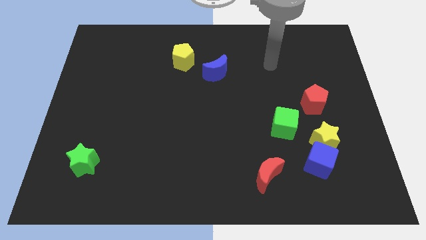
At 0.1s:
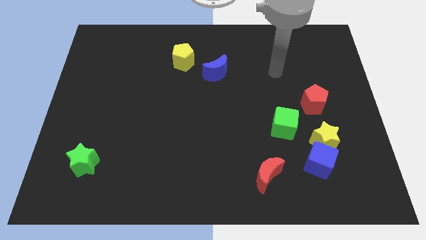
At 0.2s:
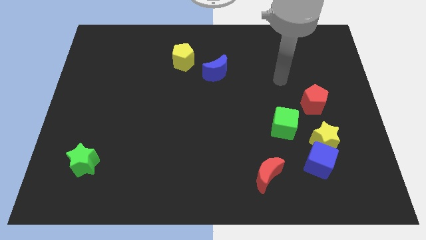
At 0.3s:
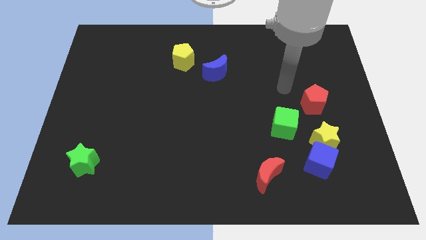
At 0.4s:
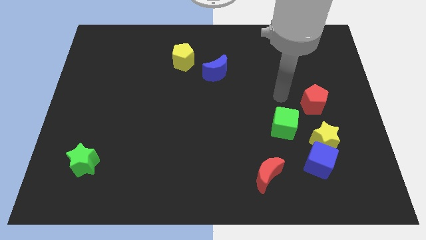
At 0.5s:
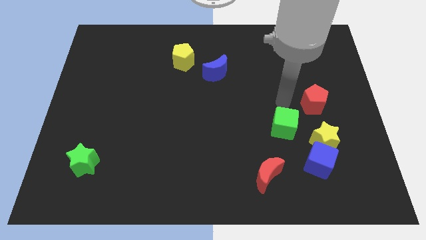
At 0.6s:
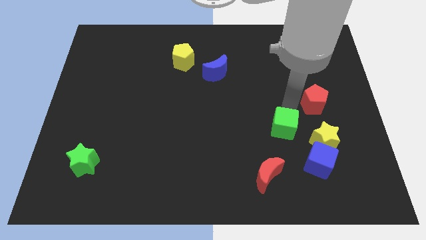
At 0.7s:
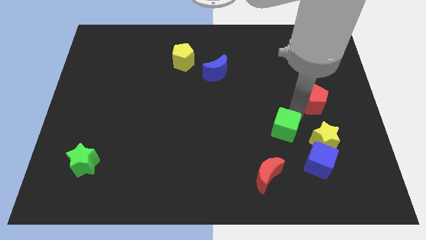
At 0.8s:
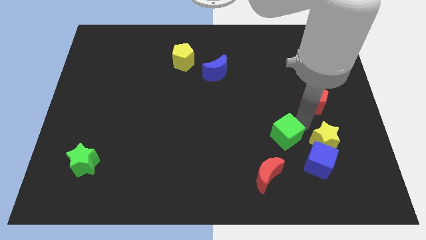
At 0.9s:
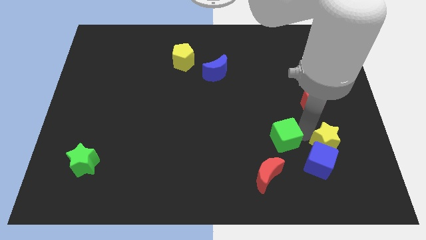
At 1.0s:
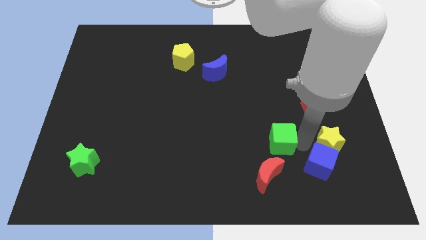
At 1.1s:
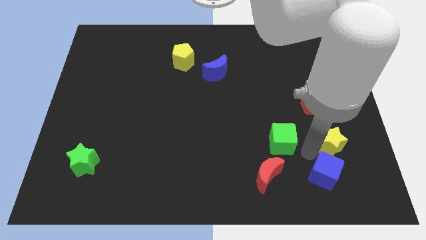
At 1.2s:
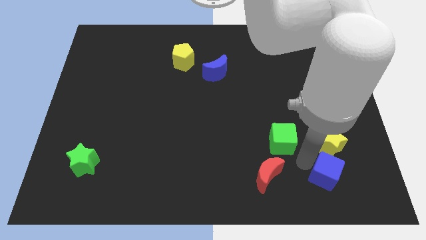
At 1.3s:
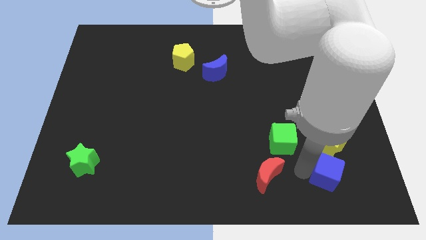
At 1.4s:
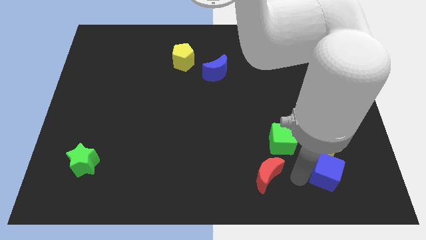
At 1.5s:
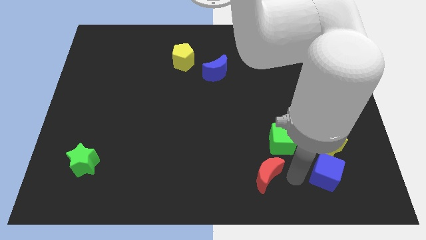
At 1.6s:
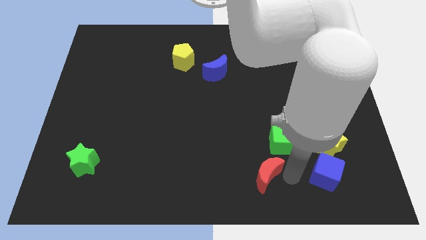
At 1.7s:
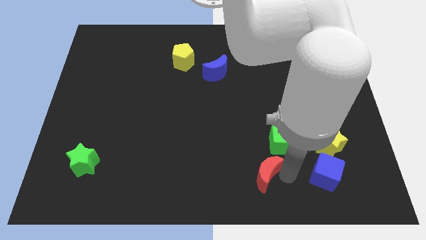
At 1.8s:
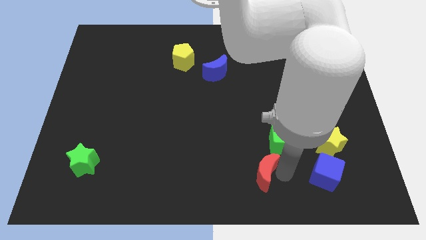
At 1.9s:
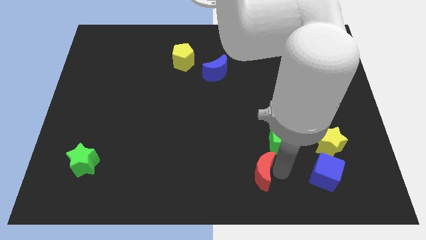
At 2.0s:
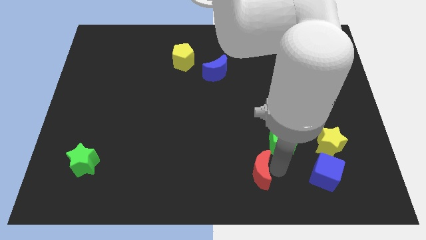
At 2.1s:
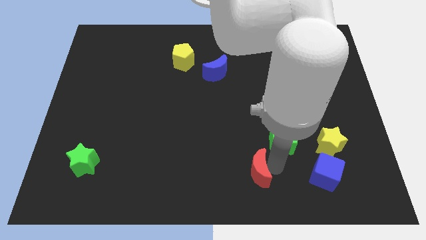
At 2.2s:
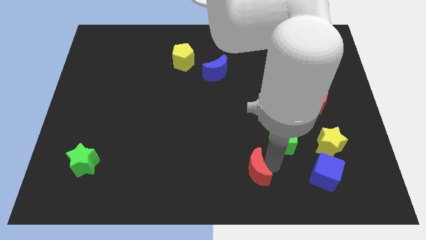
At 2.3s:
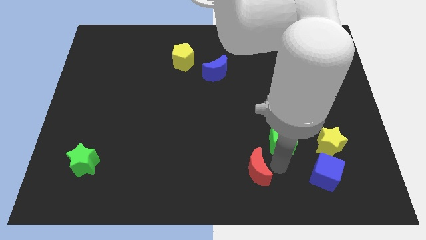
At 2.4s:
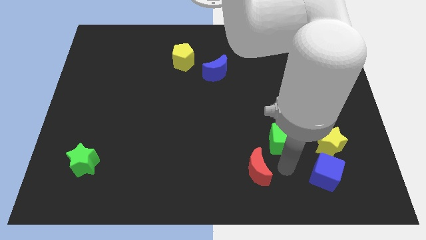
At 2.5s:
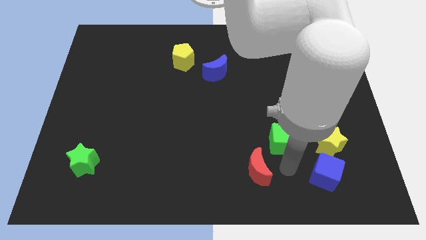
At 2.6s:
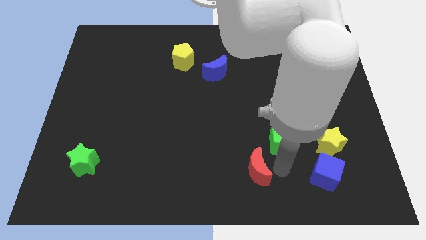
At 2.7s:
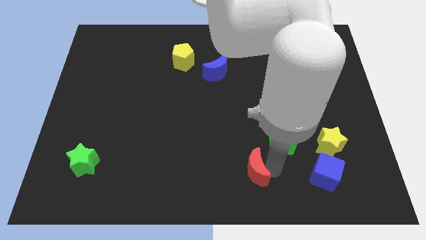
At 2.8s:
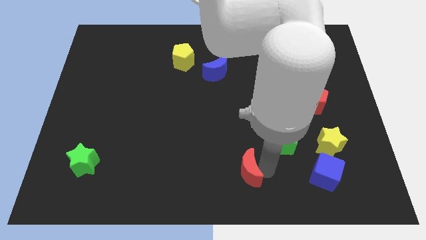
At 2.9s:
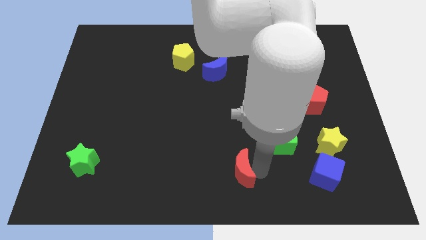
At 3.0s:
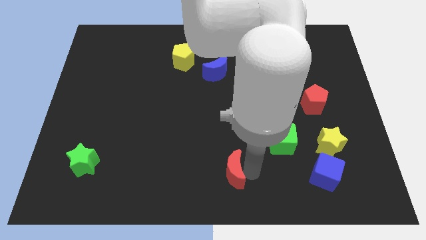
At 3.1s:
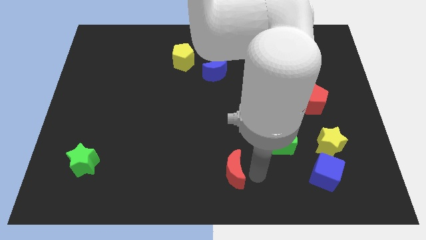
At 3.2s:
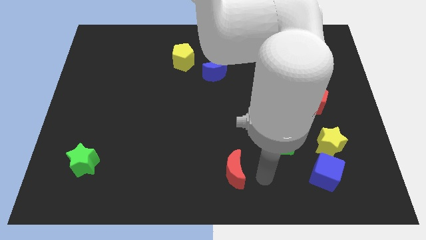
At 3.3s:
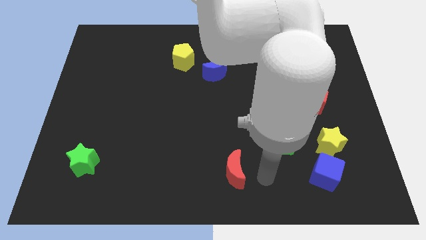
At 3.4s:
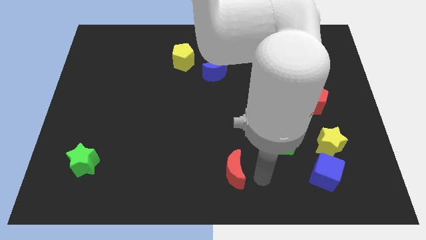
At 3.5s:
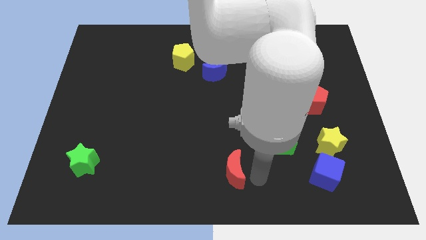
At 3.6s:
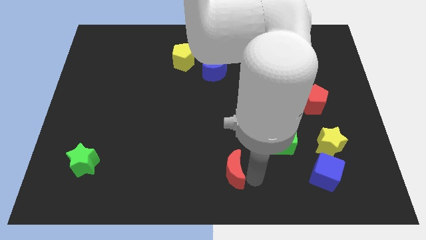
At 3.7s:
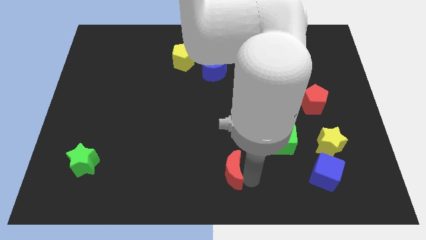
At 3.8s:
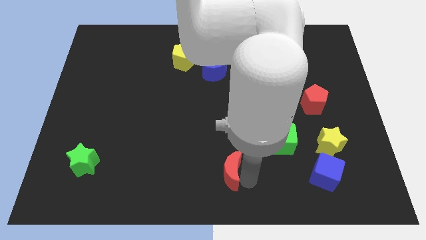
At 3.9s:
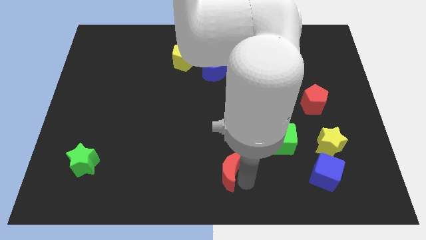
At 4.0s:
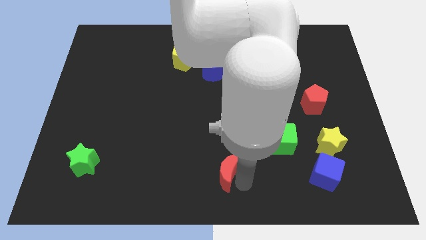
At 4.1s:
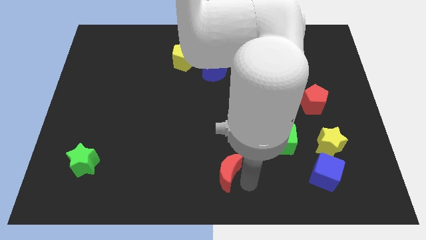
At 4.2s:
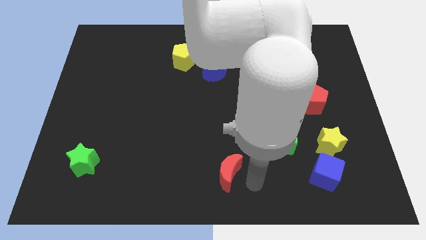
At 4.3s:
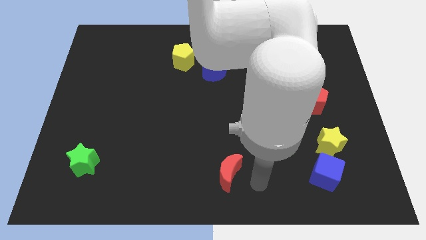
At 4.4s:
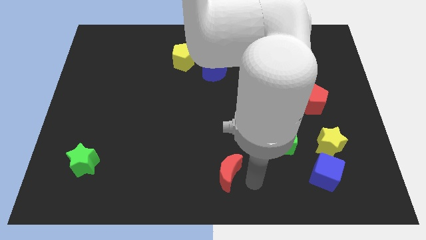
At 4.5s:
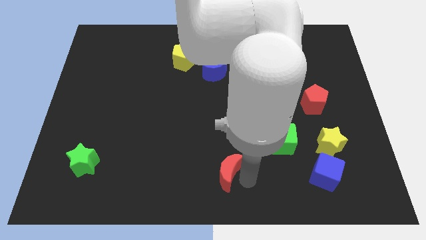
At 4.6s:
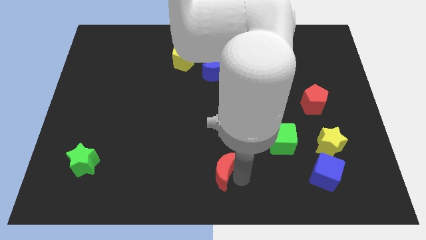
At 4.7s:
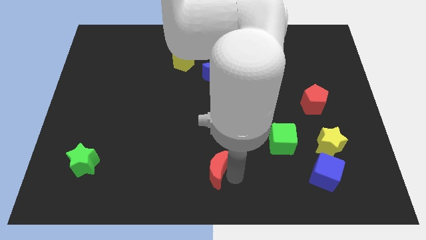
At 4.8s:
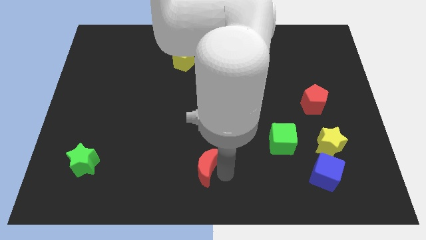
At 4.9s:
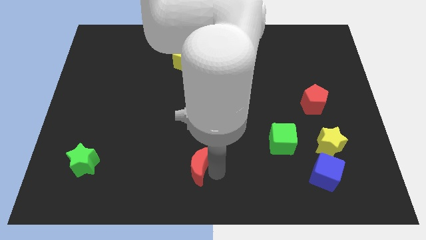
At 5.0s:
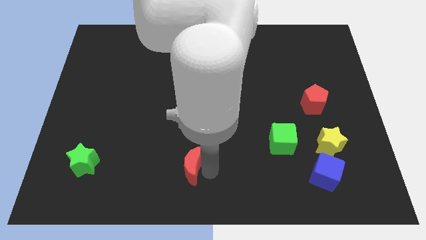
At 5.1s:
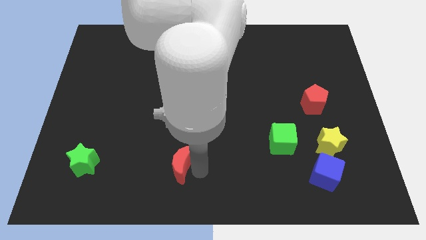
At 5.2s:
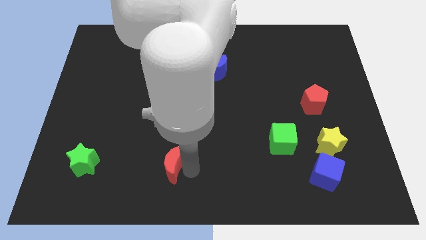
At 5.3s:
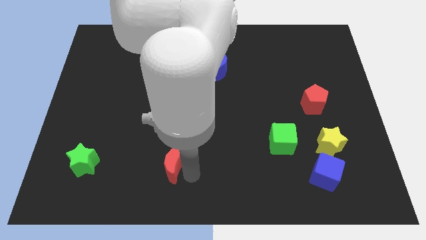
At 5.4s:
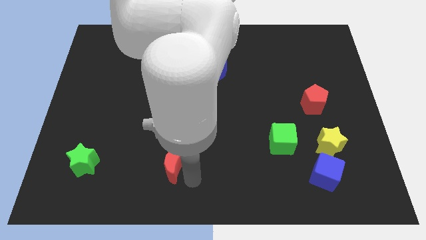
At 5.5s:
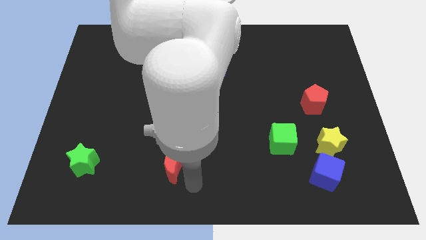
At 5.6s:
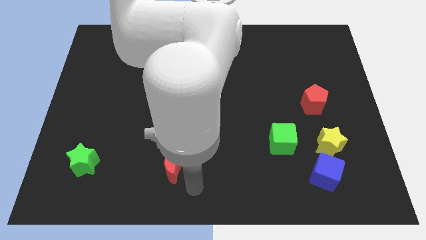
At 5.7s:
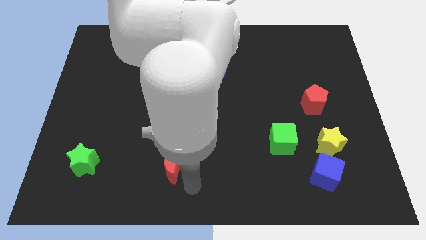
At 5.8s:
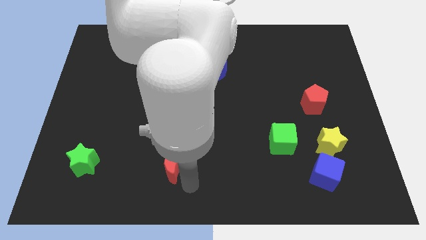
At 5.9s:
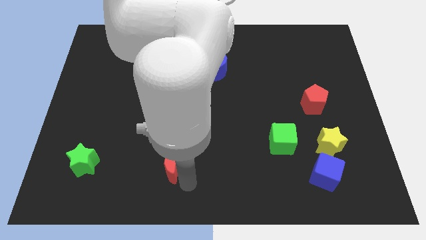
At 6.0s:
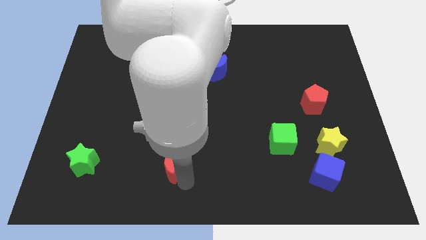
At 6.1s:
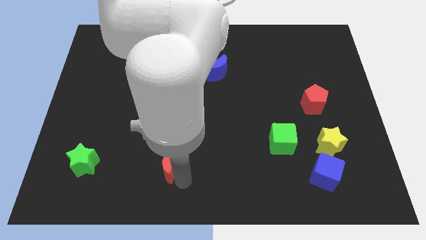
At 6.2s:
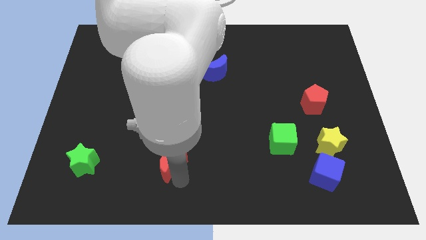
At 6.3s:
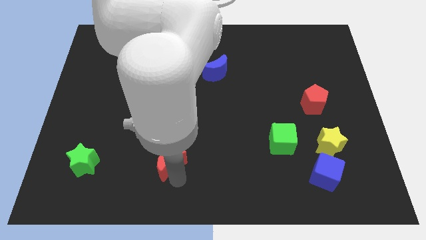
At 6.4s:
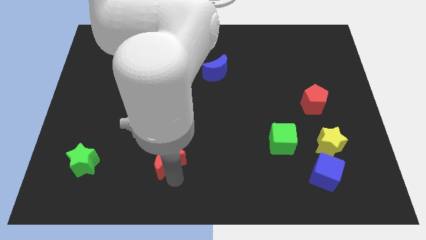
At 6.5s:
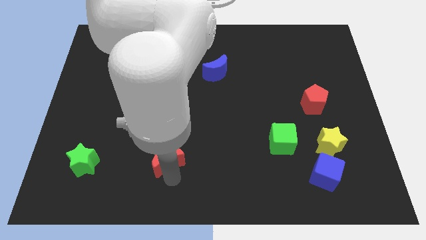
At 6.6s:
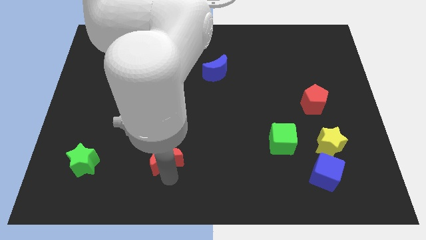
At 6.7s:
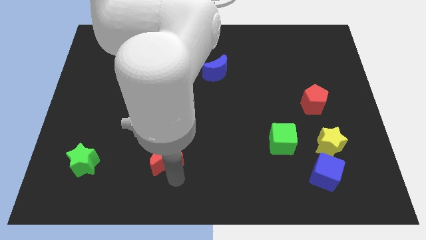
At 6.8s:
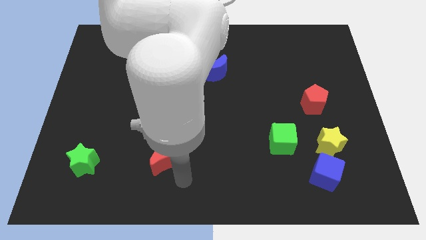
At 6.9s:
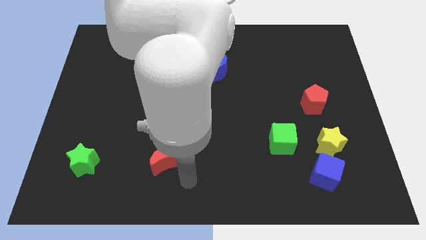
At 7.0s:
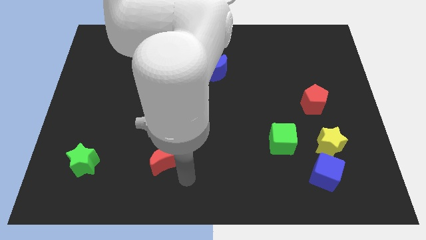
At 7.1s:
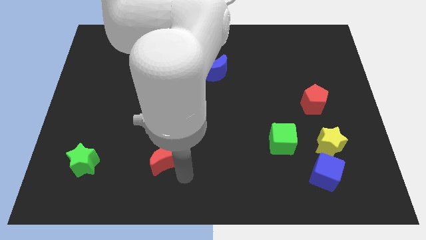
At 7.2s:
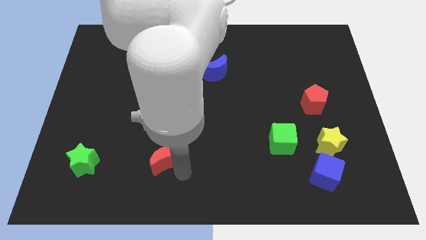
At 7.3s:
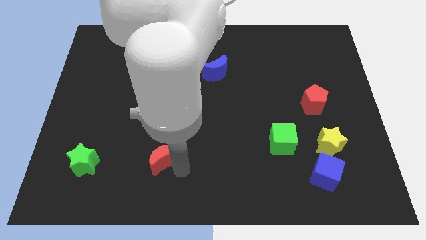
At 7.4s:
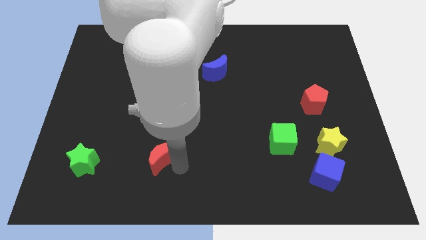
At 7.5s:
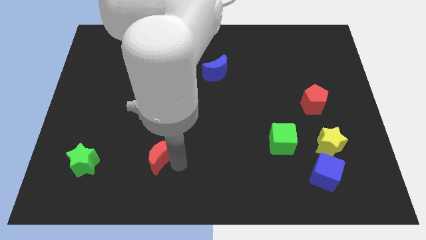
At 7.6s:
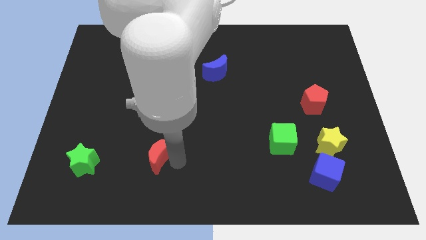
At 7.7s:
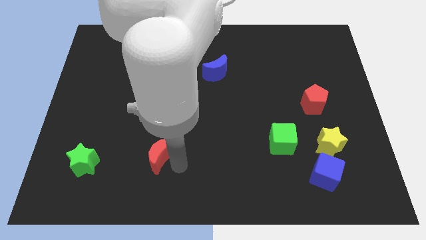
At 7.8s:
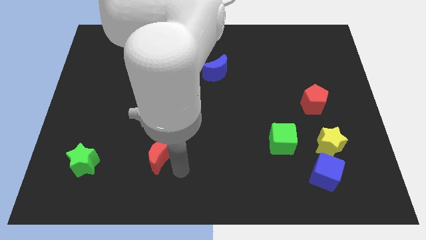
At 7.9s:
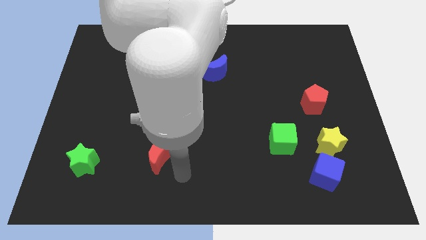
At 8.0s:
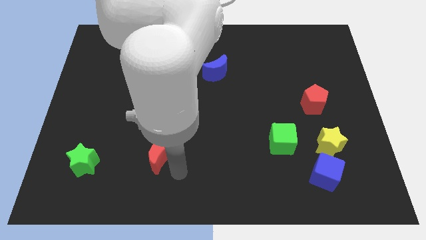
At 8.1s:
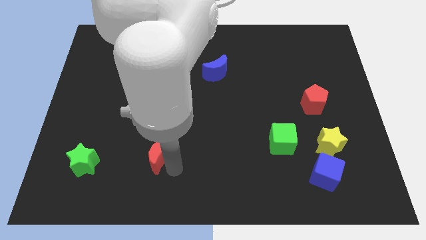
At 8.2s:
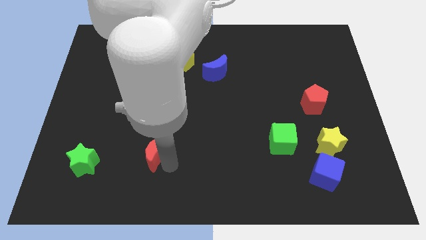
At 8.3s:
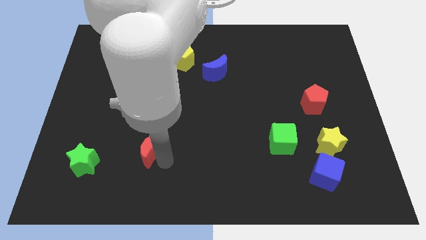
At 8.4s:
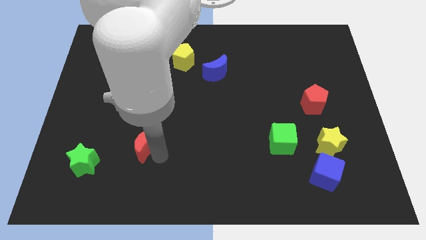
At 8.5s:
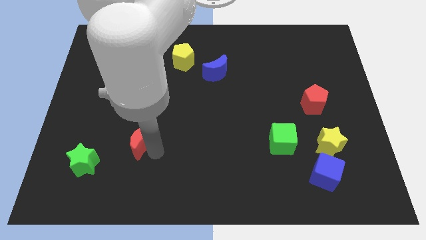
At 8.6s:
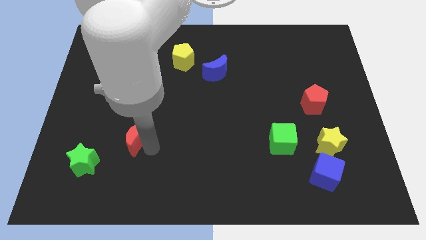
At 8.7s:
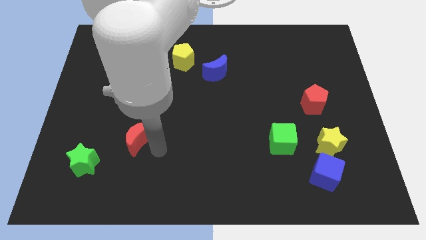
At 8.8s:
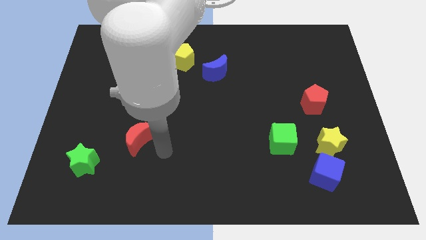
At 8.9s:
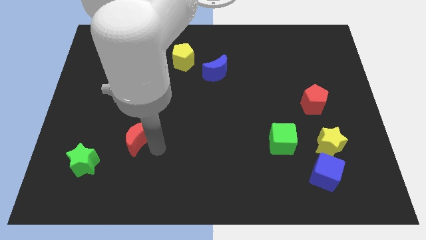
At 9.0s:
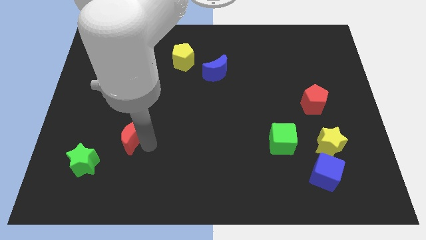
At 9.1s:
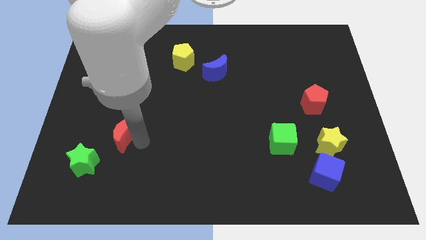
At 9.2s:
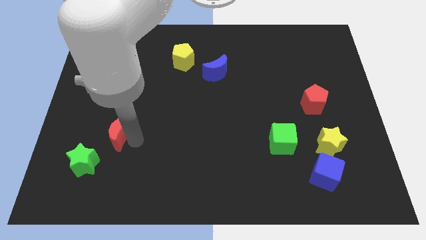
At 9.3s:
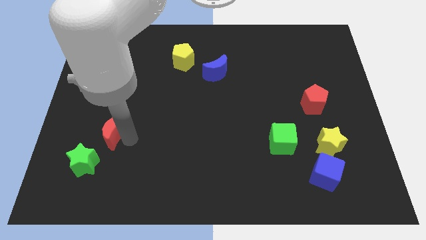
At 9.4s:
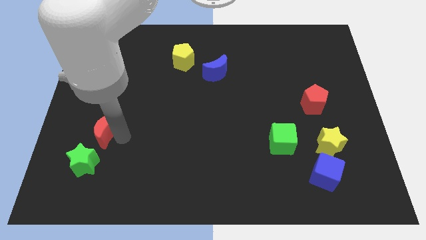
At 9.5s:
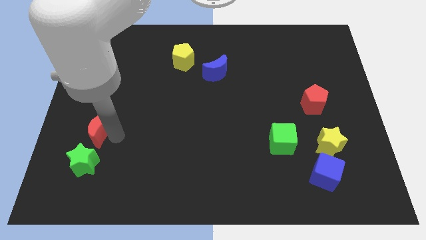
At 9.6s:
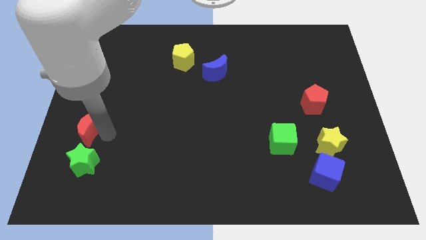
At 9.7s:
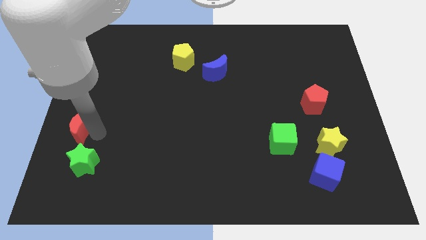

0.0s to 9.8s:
put the red moon to the left side
